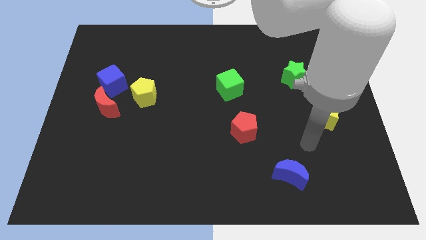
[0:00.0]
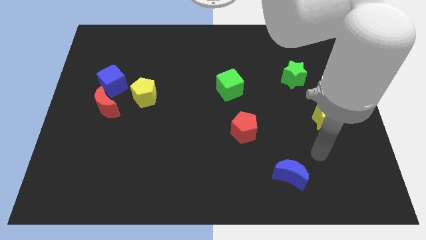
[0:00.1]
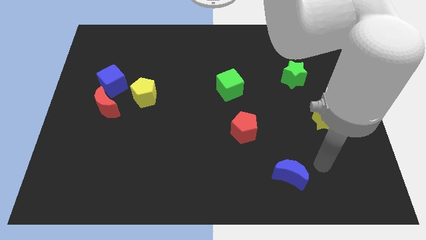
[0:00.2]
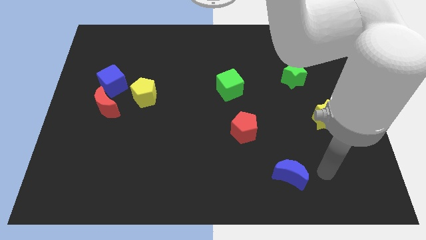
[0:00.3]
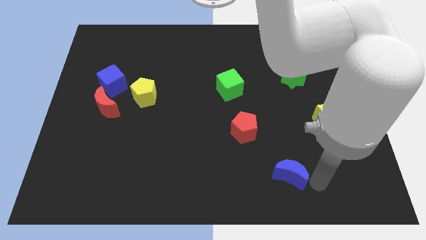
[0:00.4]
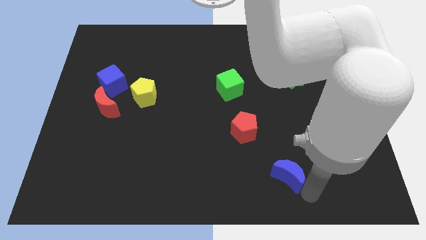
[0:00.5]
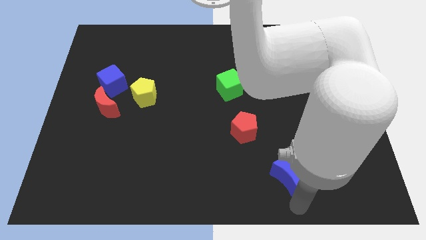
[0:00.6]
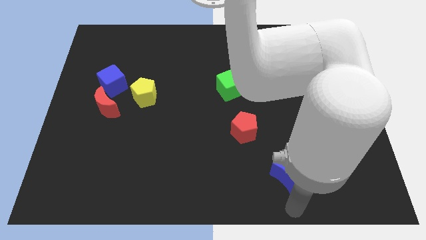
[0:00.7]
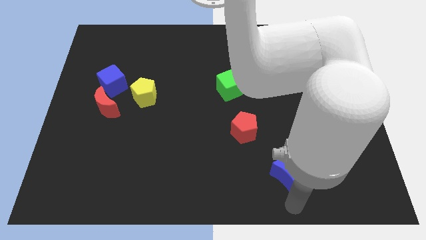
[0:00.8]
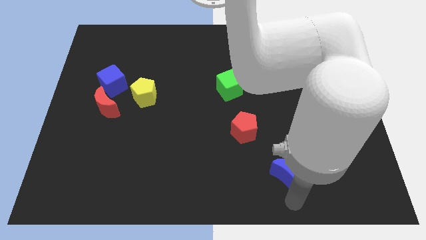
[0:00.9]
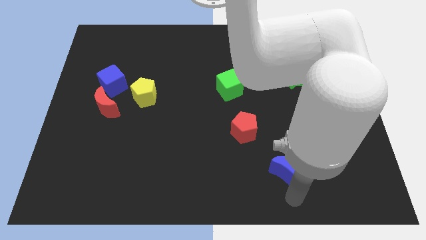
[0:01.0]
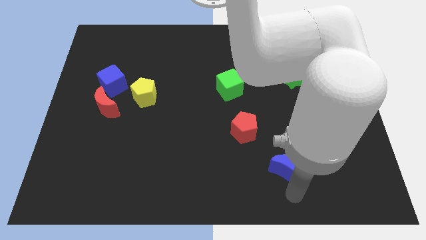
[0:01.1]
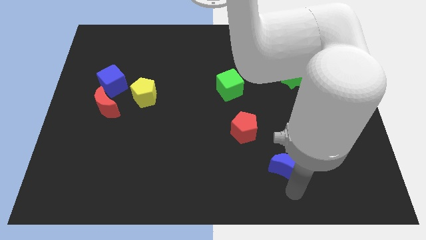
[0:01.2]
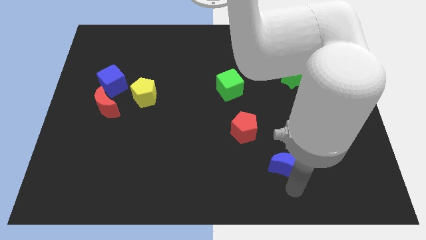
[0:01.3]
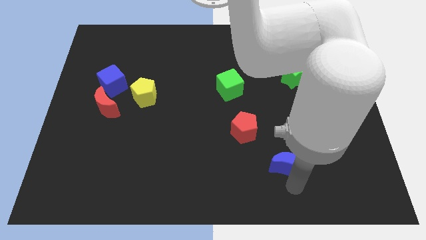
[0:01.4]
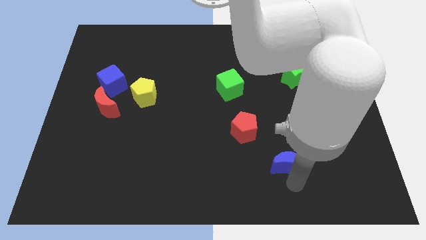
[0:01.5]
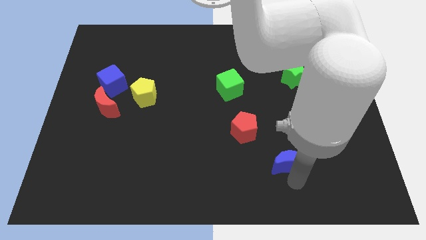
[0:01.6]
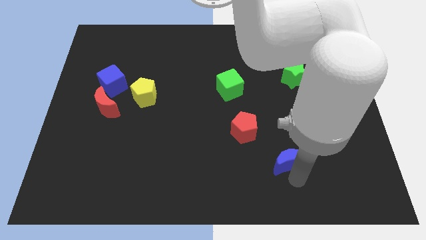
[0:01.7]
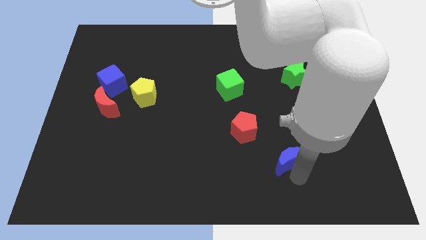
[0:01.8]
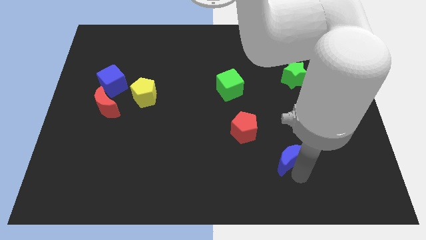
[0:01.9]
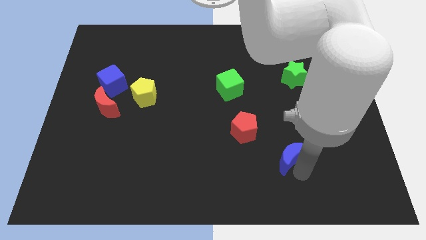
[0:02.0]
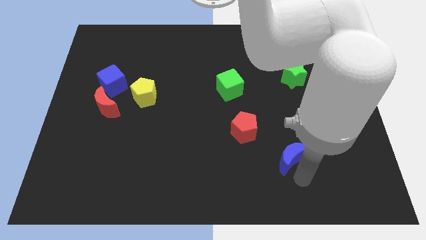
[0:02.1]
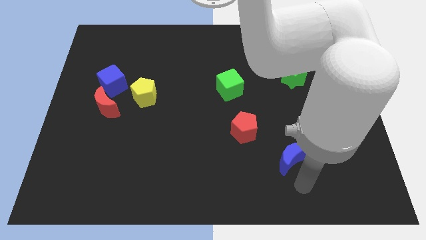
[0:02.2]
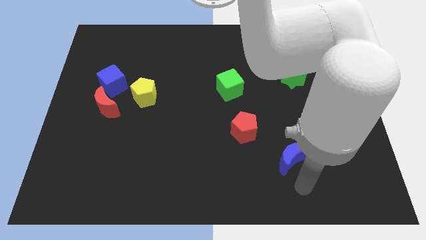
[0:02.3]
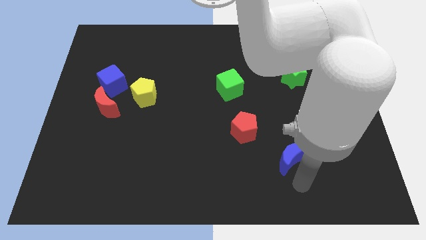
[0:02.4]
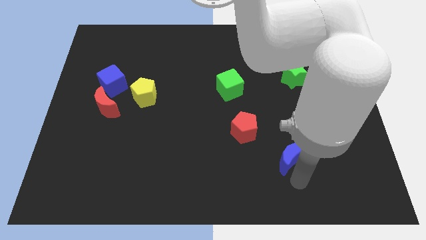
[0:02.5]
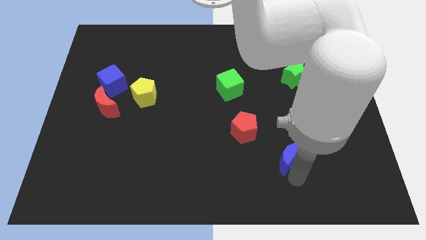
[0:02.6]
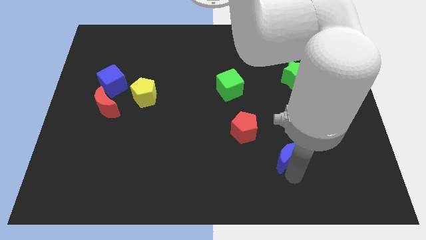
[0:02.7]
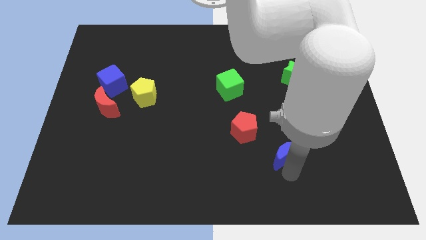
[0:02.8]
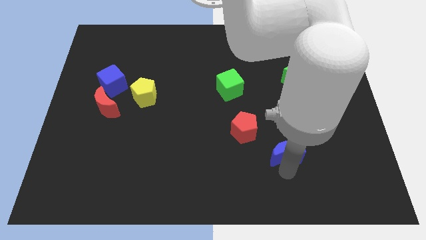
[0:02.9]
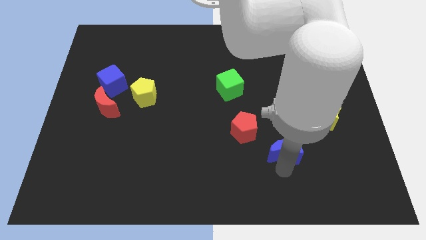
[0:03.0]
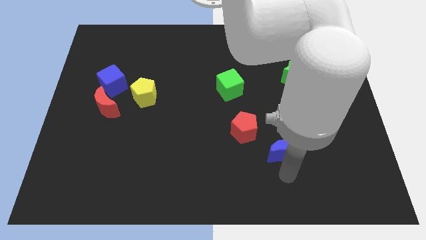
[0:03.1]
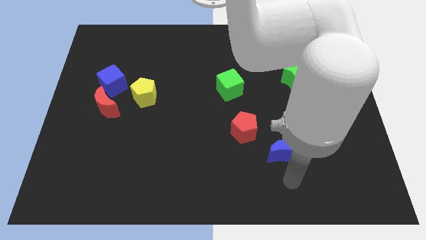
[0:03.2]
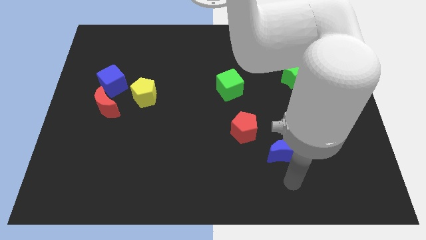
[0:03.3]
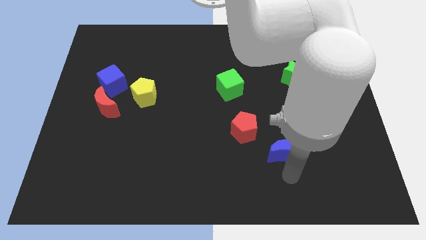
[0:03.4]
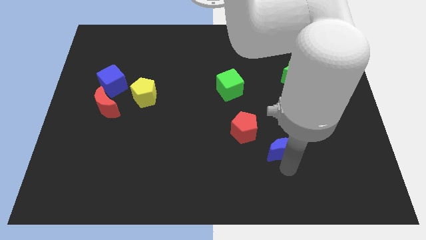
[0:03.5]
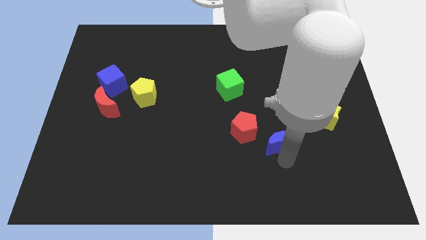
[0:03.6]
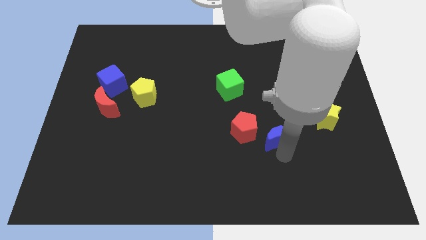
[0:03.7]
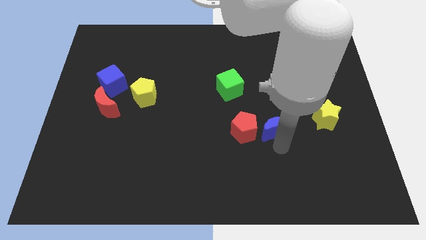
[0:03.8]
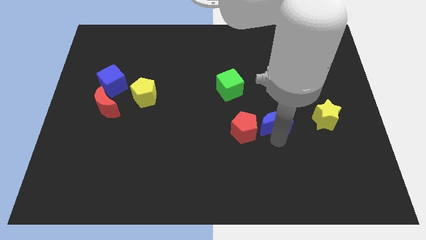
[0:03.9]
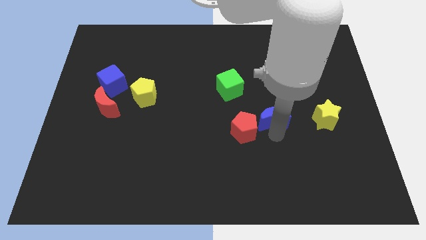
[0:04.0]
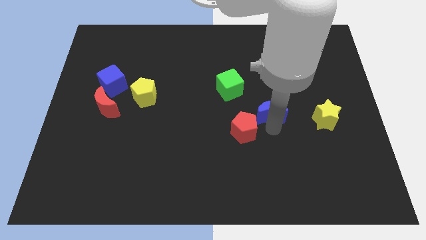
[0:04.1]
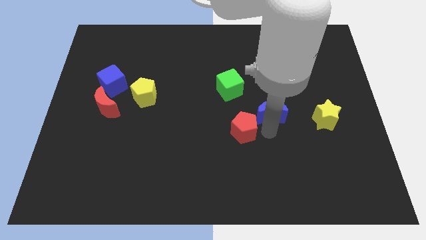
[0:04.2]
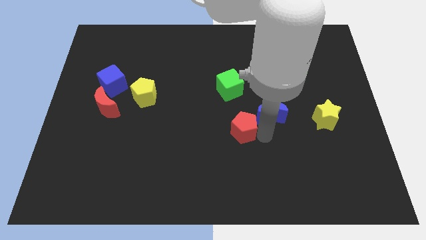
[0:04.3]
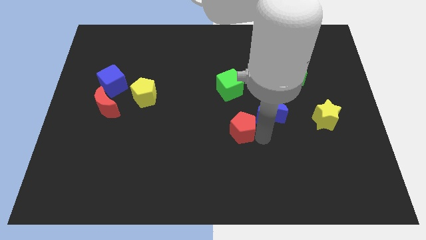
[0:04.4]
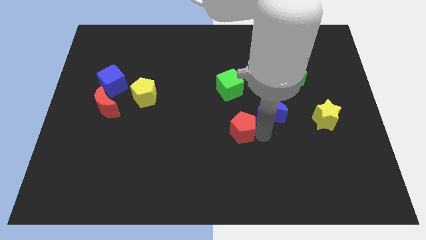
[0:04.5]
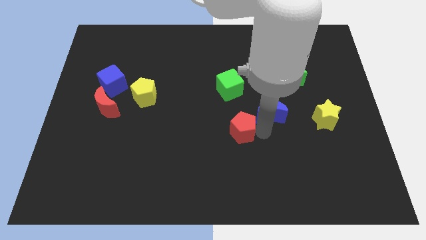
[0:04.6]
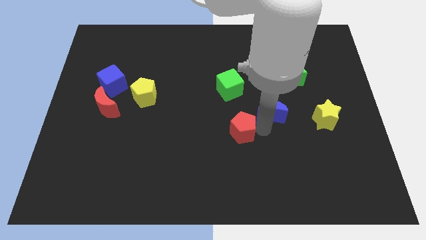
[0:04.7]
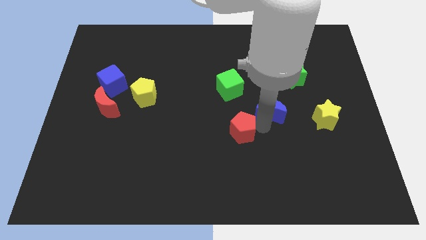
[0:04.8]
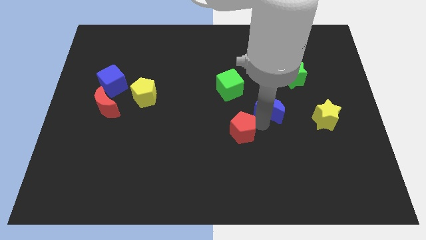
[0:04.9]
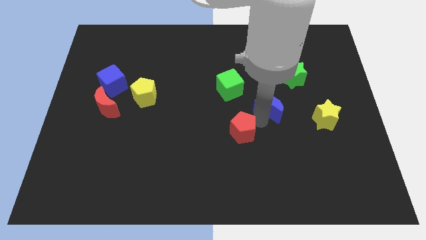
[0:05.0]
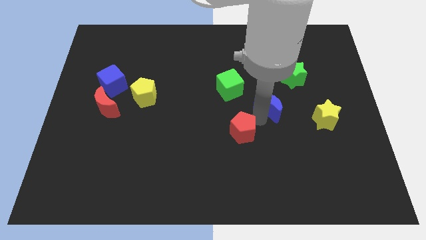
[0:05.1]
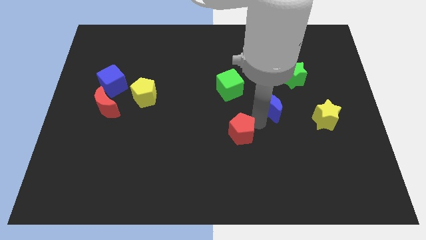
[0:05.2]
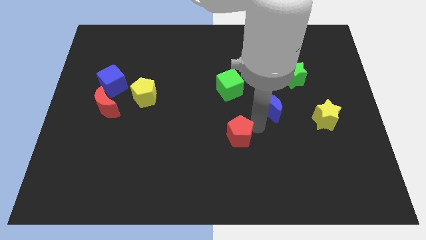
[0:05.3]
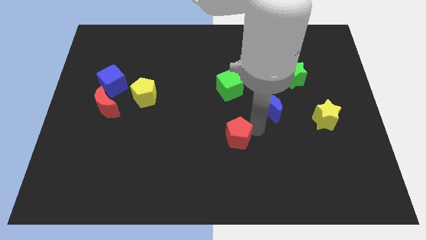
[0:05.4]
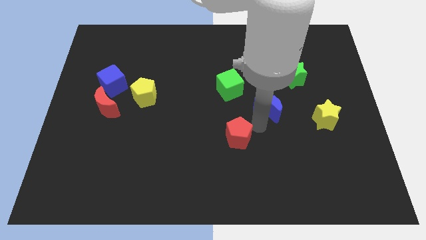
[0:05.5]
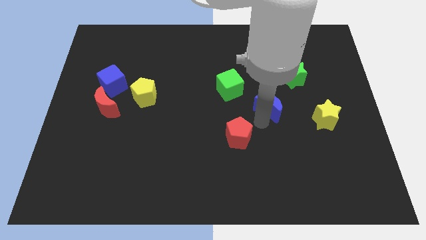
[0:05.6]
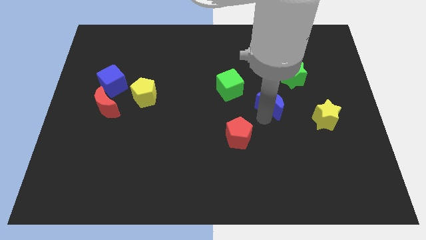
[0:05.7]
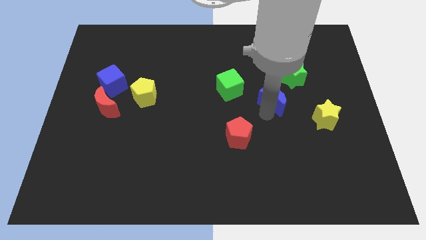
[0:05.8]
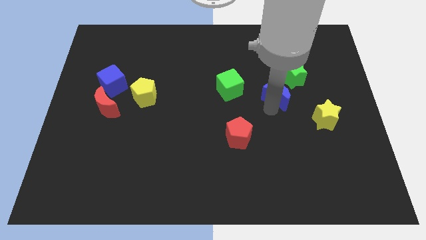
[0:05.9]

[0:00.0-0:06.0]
slide the blue moon up

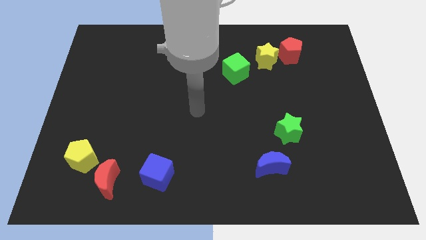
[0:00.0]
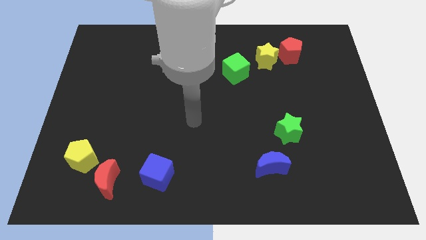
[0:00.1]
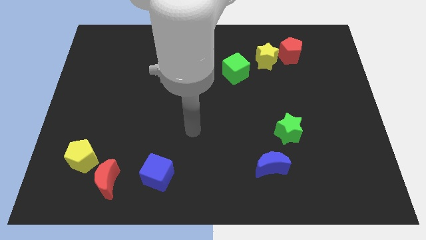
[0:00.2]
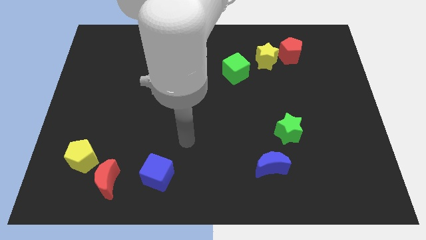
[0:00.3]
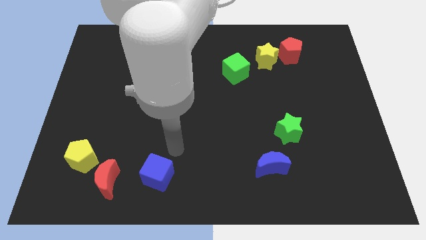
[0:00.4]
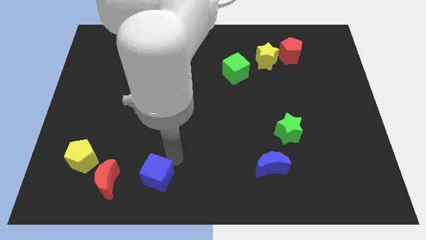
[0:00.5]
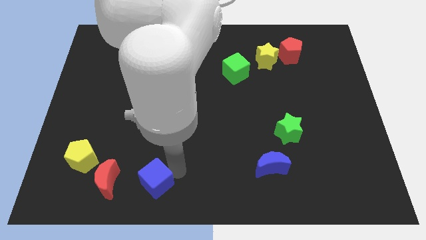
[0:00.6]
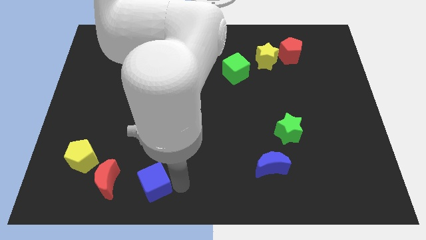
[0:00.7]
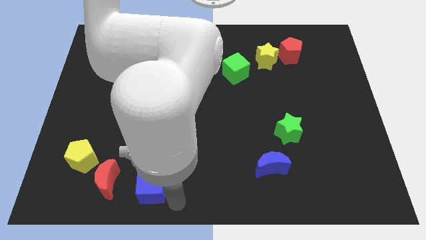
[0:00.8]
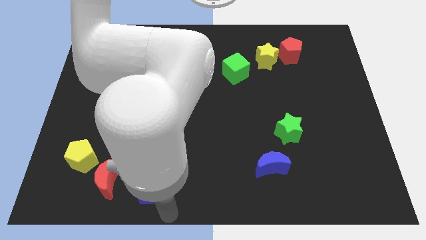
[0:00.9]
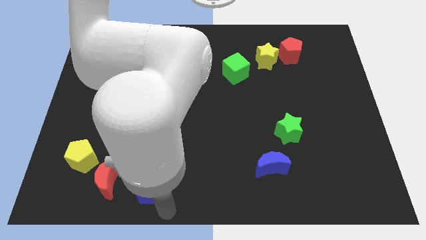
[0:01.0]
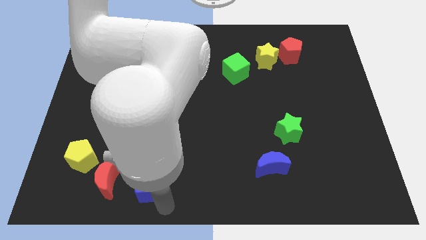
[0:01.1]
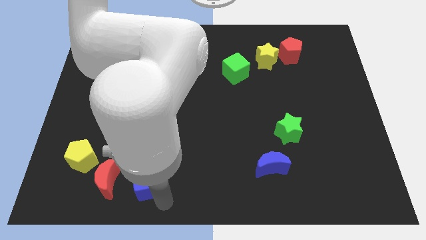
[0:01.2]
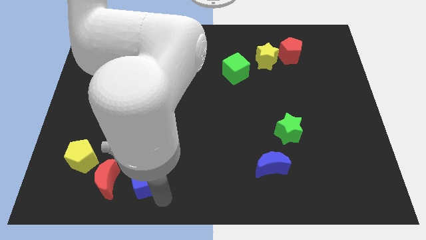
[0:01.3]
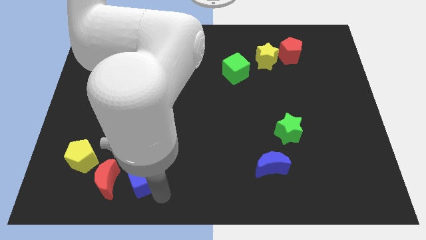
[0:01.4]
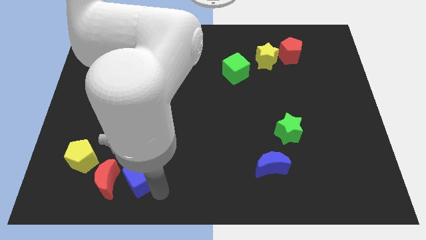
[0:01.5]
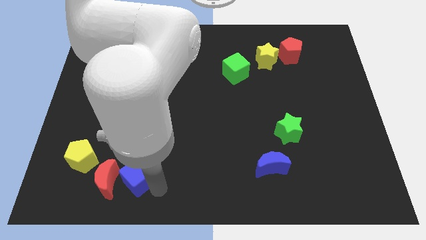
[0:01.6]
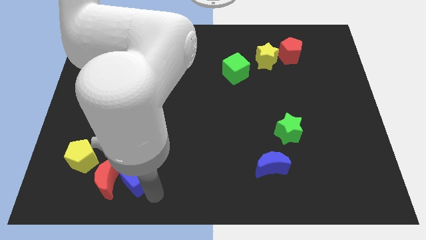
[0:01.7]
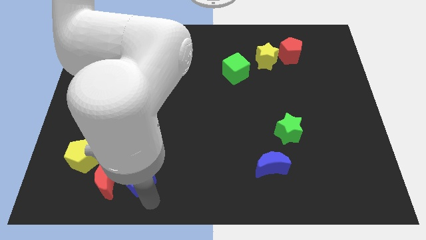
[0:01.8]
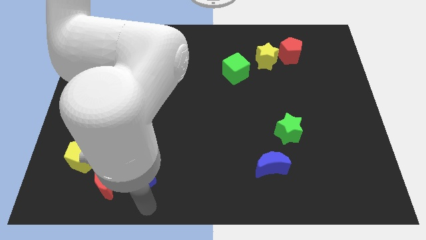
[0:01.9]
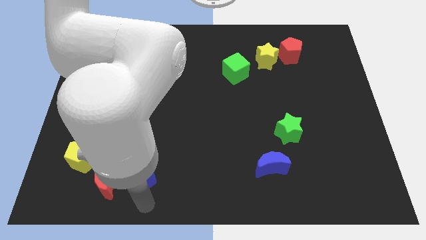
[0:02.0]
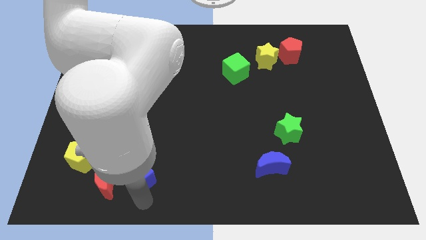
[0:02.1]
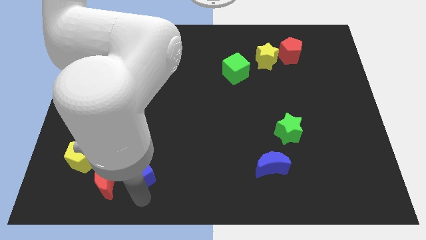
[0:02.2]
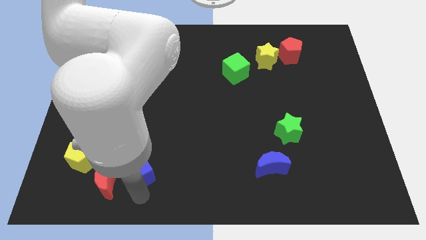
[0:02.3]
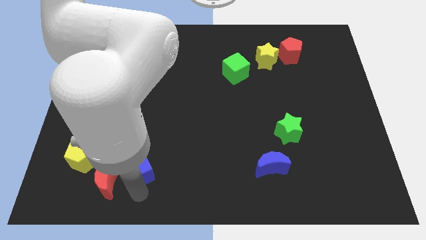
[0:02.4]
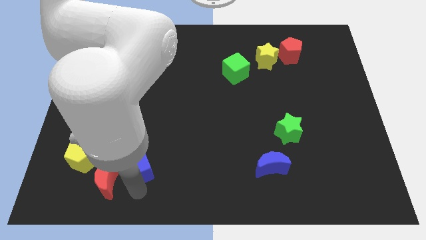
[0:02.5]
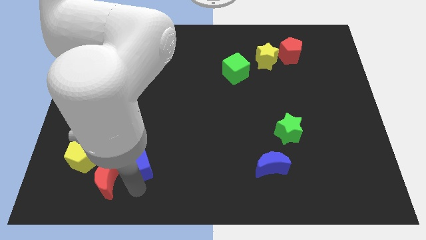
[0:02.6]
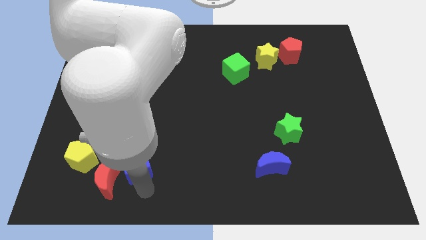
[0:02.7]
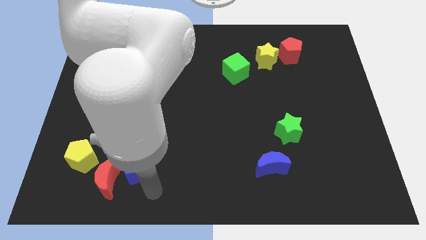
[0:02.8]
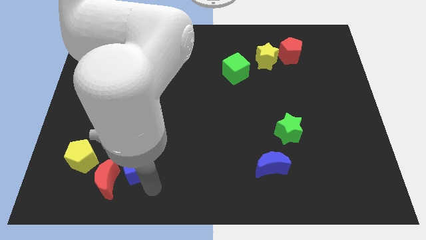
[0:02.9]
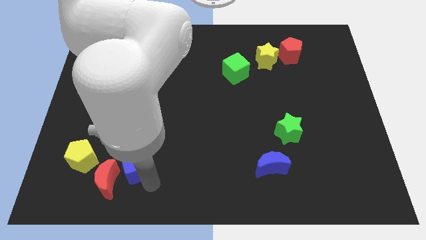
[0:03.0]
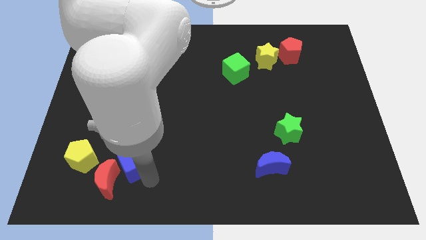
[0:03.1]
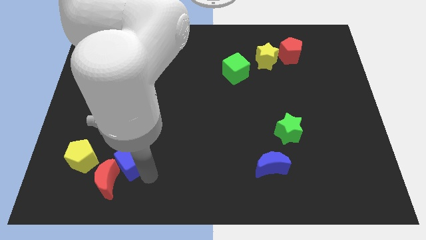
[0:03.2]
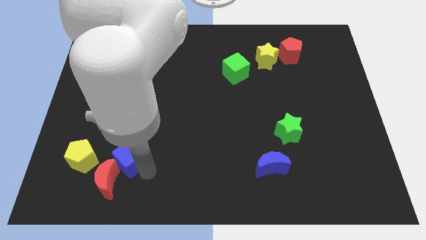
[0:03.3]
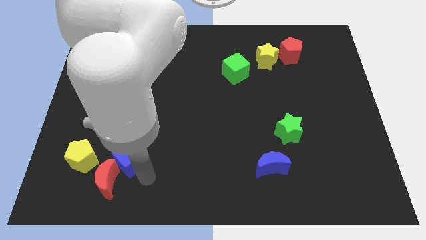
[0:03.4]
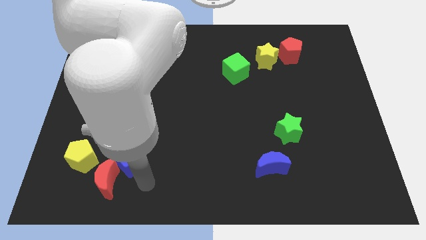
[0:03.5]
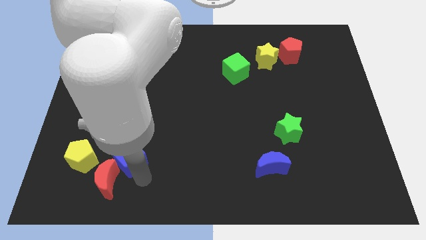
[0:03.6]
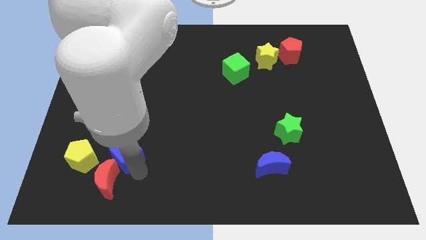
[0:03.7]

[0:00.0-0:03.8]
slide the blue cube a bit diagonally up and left
